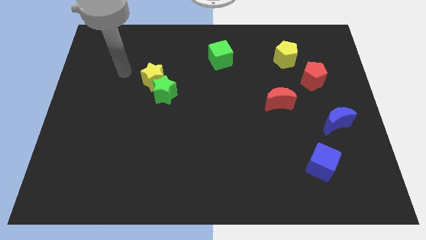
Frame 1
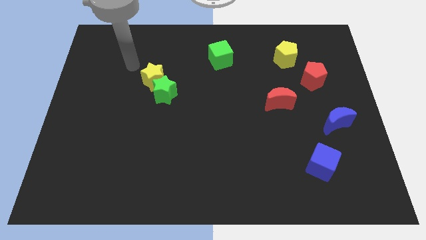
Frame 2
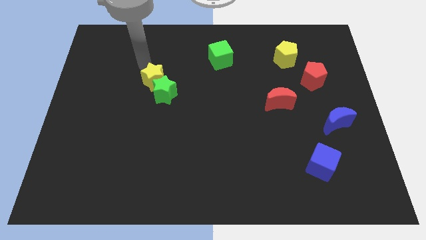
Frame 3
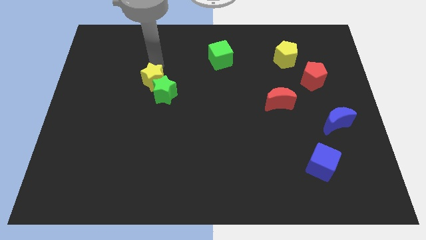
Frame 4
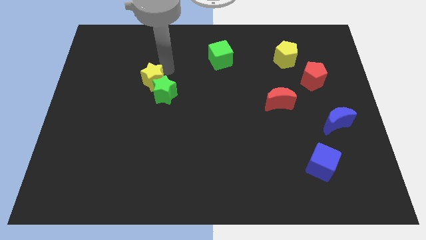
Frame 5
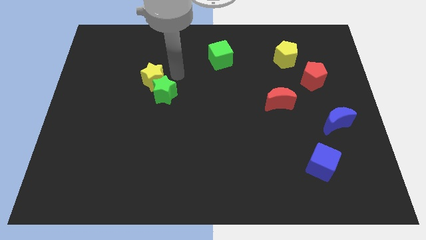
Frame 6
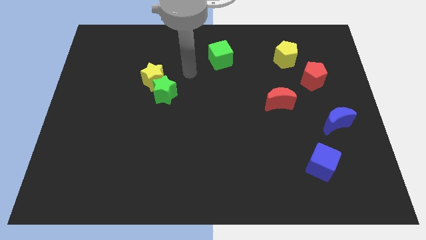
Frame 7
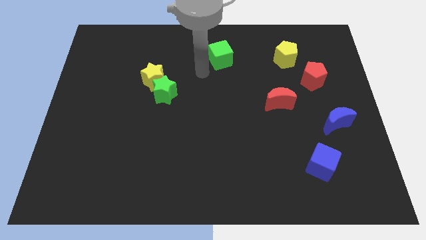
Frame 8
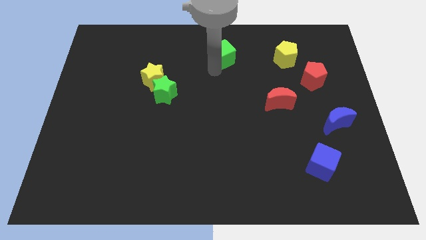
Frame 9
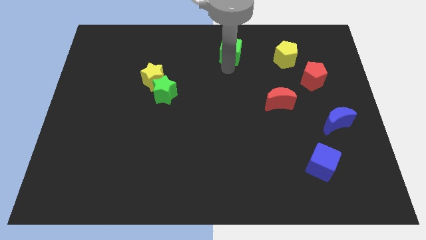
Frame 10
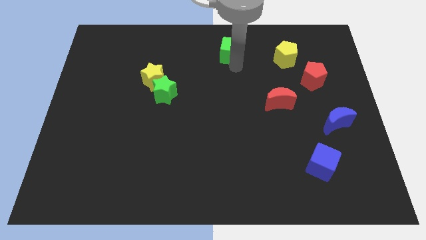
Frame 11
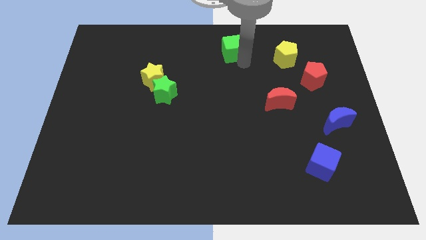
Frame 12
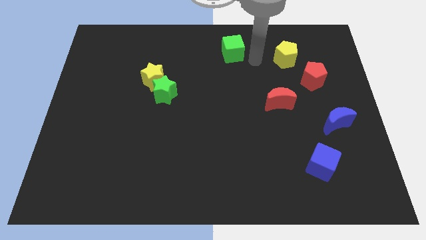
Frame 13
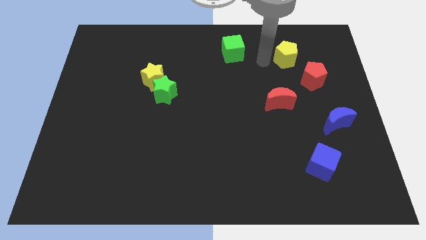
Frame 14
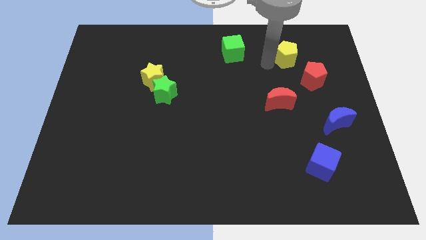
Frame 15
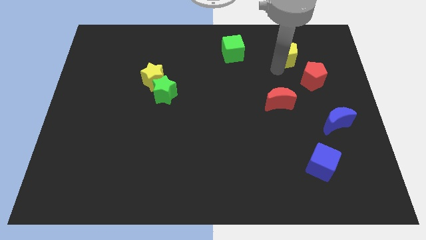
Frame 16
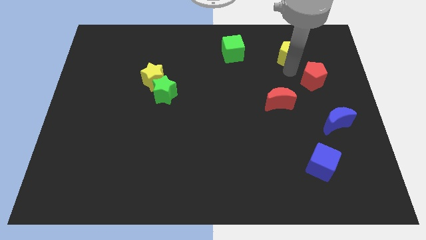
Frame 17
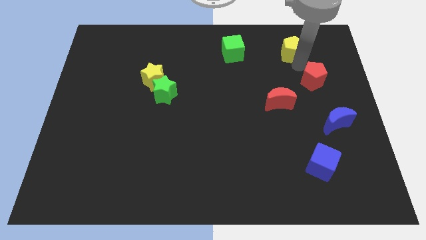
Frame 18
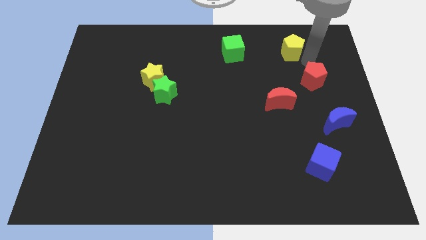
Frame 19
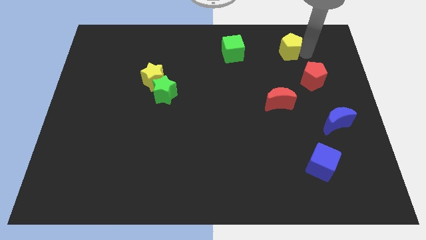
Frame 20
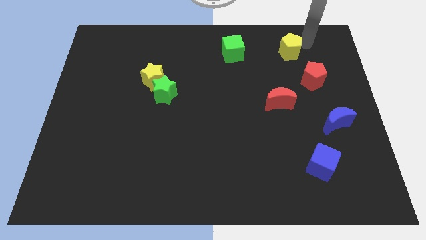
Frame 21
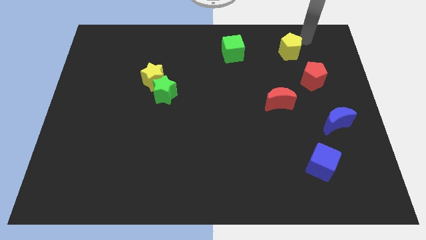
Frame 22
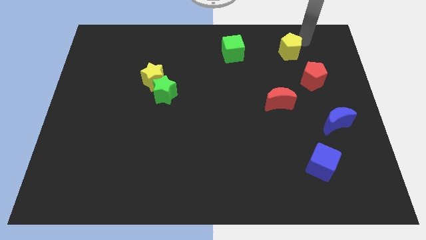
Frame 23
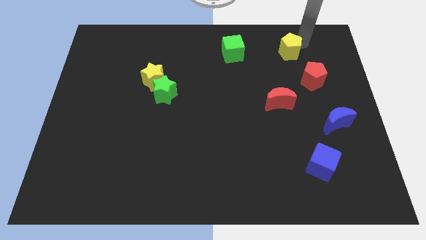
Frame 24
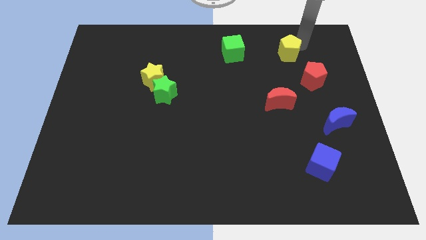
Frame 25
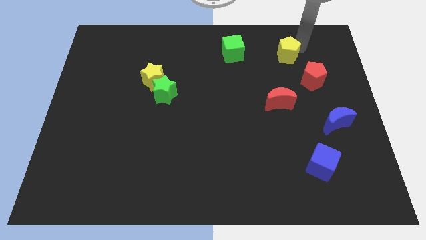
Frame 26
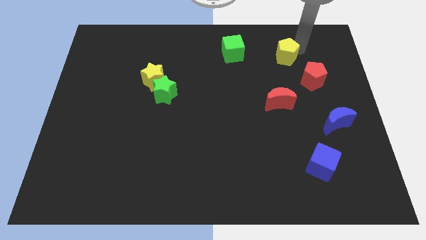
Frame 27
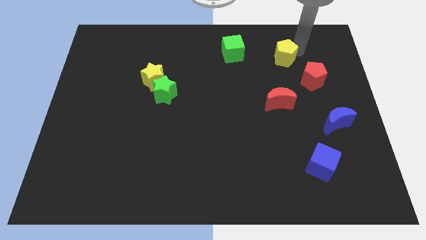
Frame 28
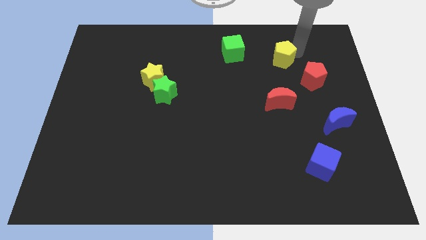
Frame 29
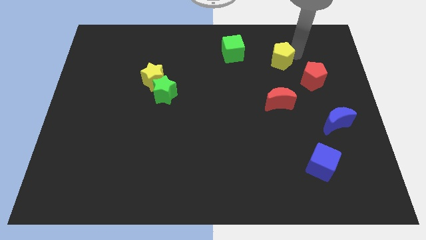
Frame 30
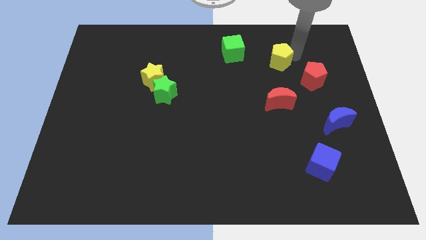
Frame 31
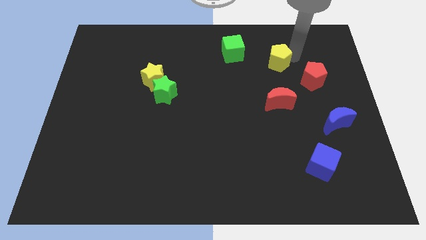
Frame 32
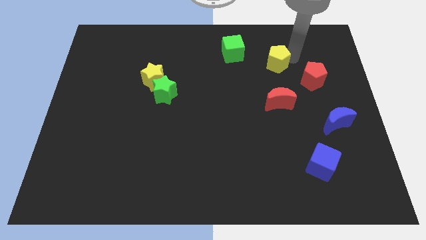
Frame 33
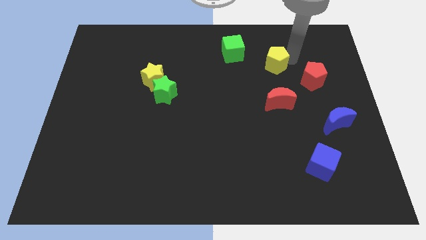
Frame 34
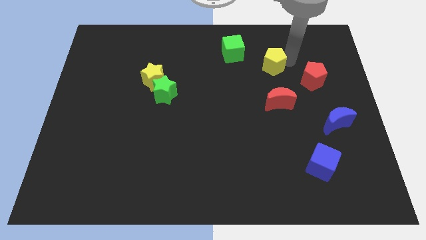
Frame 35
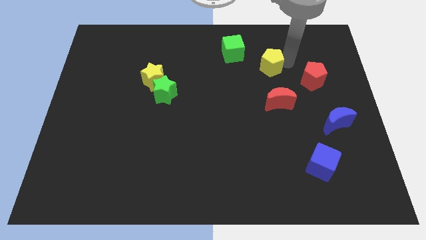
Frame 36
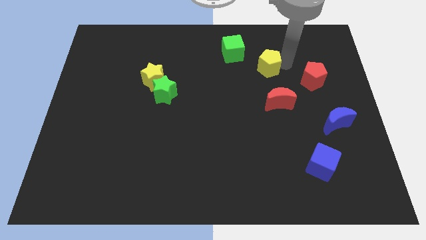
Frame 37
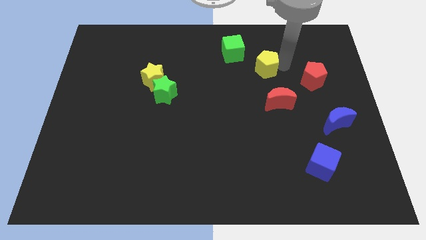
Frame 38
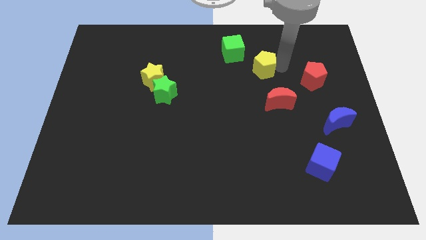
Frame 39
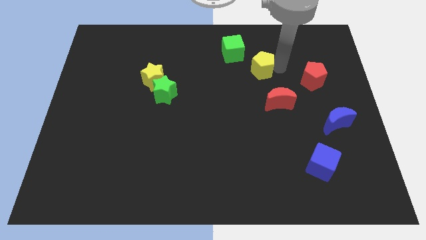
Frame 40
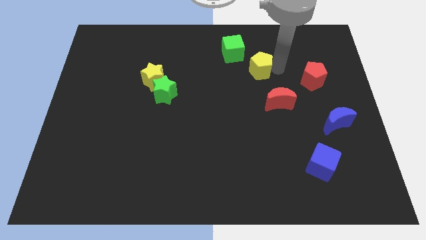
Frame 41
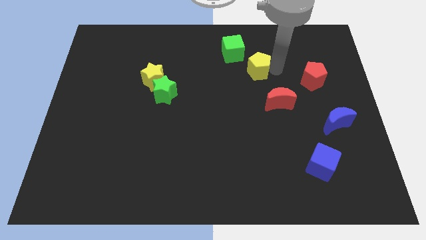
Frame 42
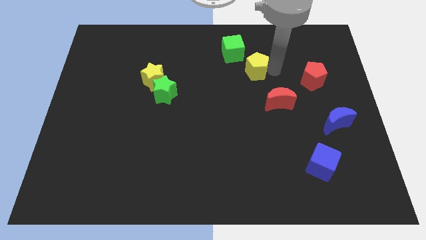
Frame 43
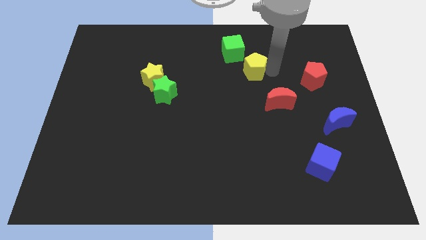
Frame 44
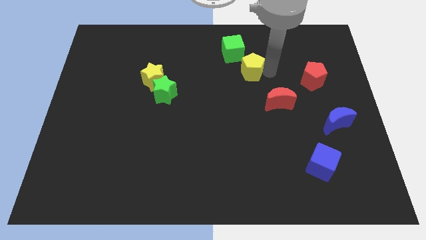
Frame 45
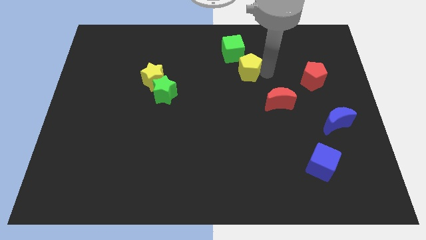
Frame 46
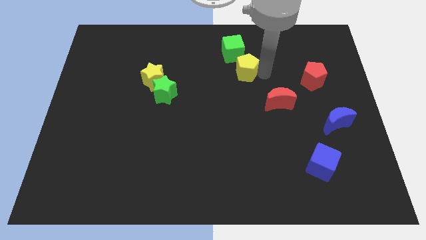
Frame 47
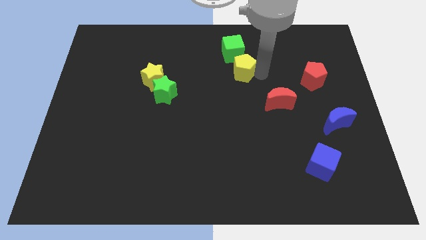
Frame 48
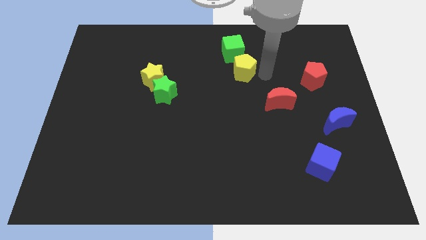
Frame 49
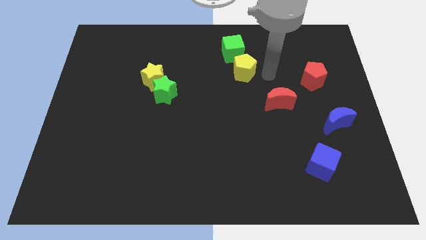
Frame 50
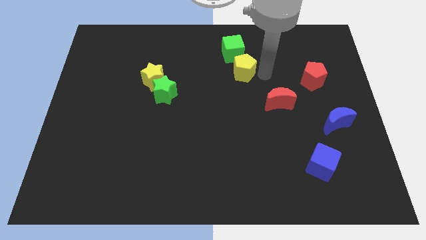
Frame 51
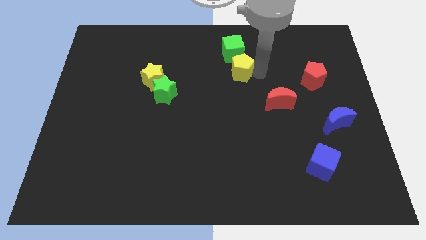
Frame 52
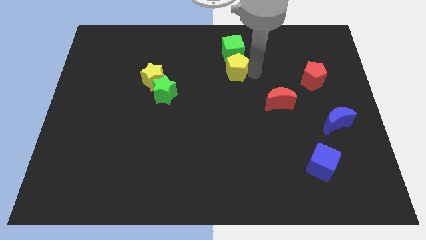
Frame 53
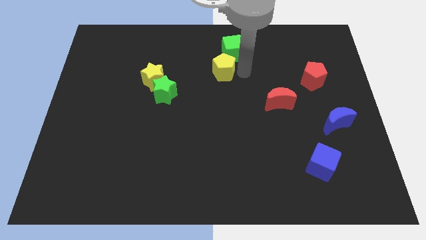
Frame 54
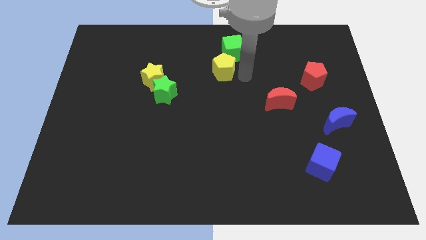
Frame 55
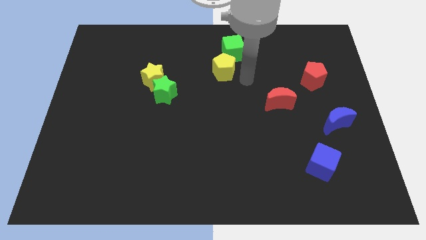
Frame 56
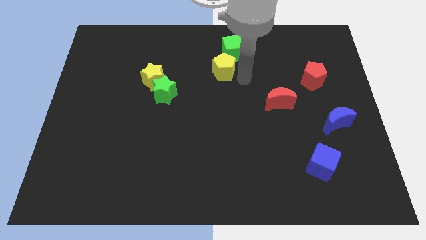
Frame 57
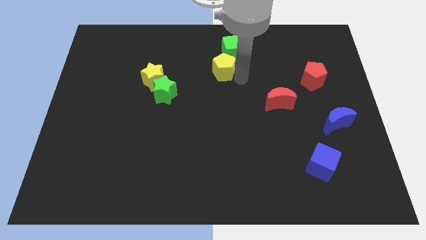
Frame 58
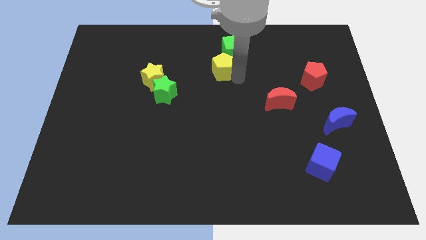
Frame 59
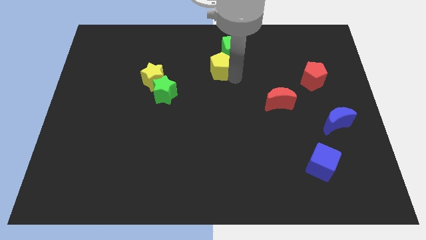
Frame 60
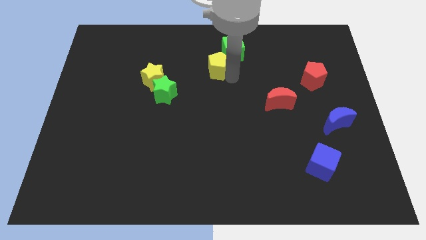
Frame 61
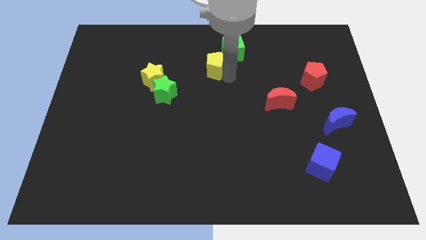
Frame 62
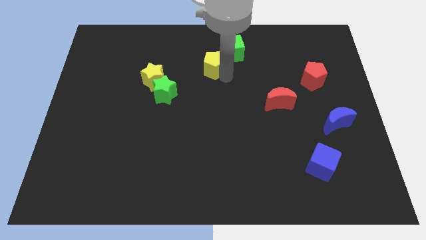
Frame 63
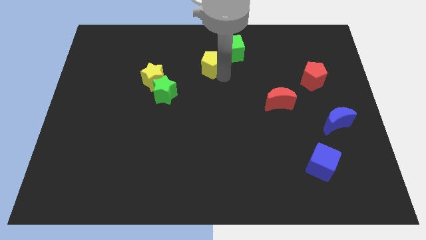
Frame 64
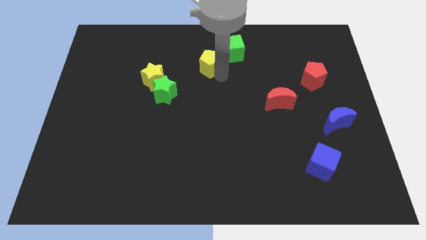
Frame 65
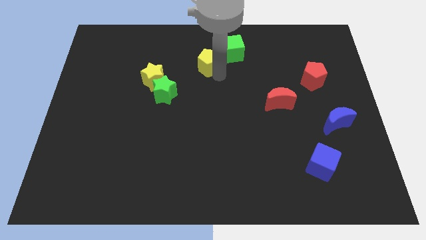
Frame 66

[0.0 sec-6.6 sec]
push the yellow pentagon left

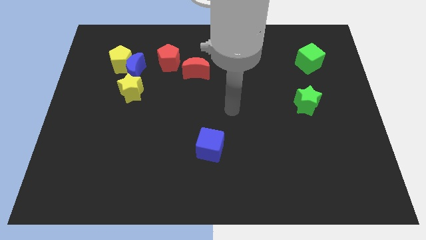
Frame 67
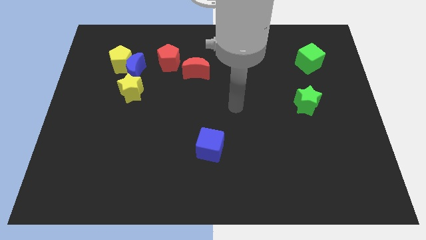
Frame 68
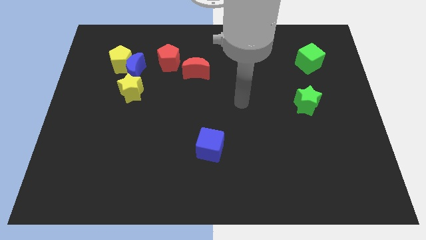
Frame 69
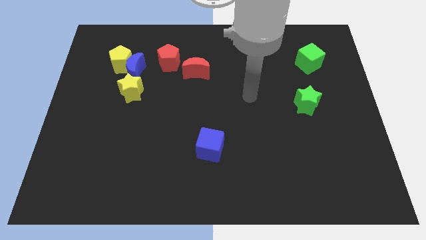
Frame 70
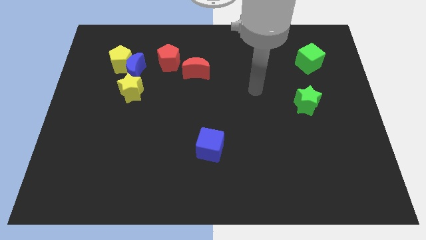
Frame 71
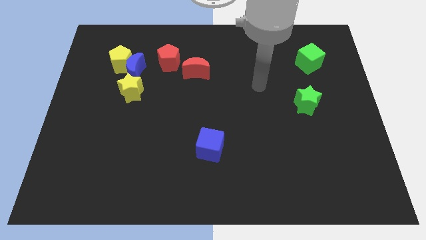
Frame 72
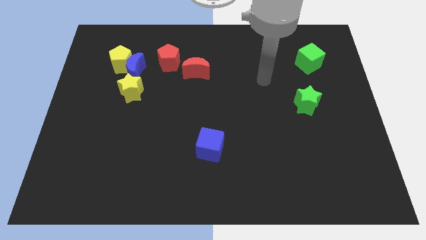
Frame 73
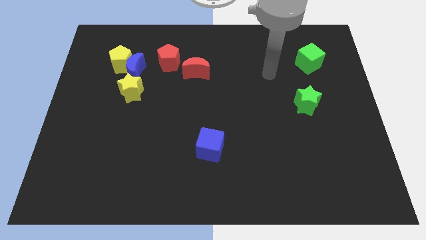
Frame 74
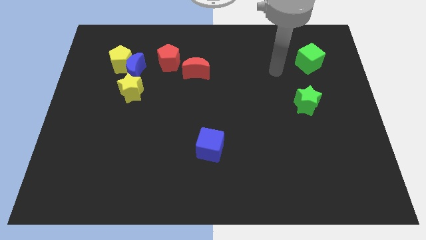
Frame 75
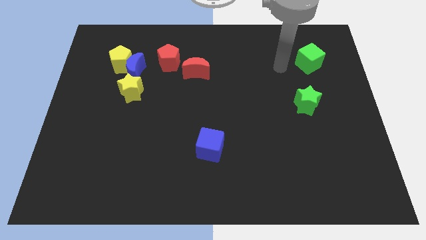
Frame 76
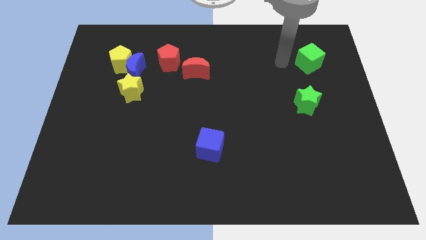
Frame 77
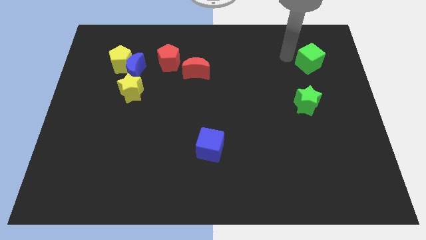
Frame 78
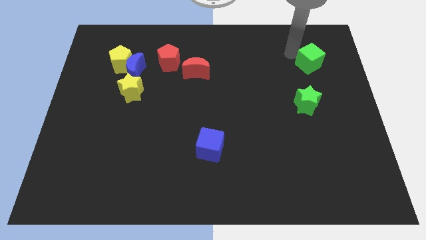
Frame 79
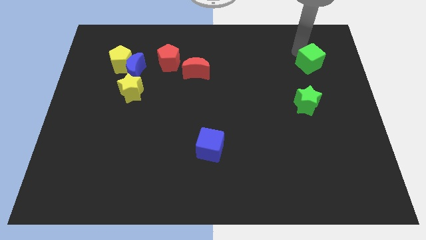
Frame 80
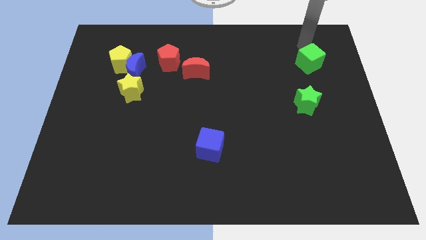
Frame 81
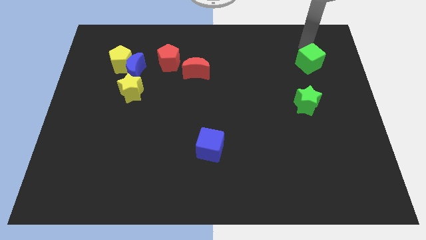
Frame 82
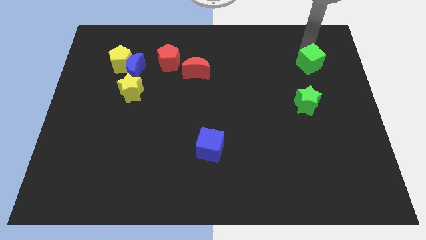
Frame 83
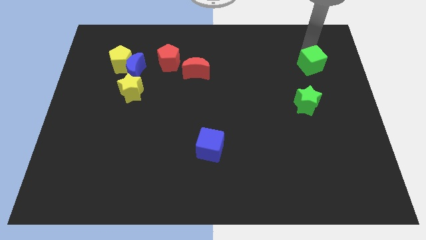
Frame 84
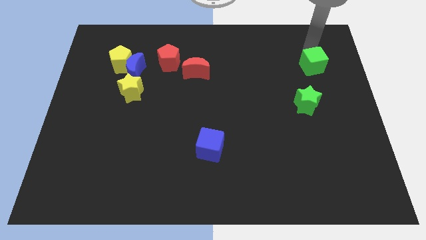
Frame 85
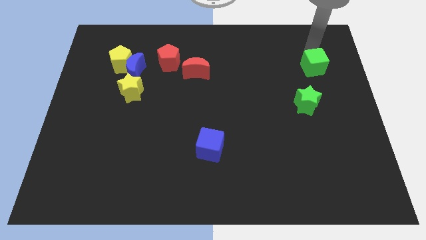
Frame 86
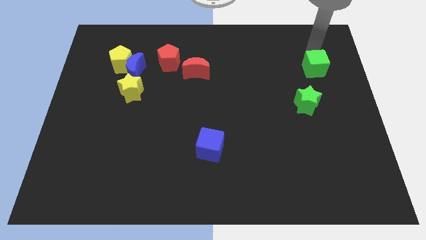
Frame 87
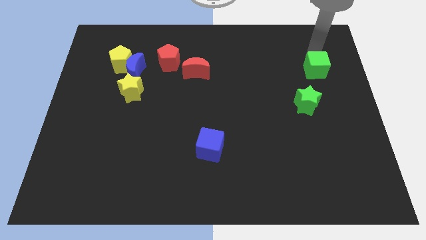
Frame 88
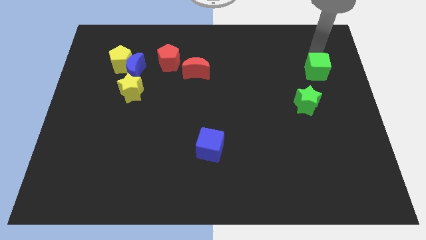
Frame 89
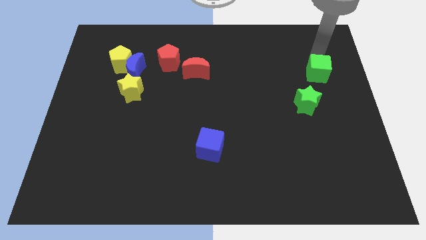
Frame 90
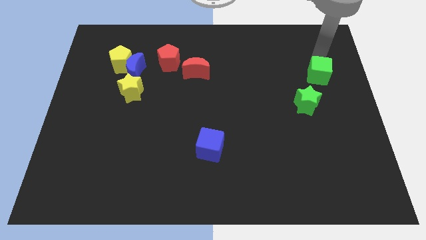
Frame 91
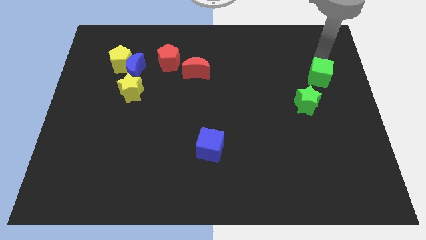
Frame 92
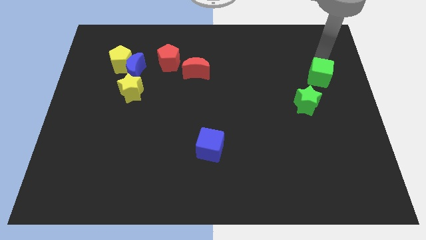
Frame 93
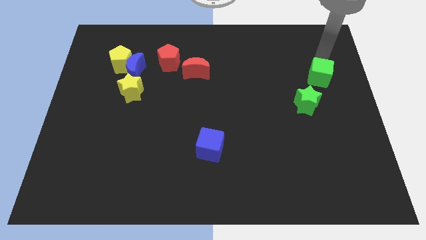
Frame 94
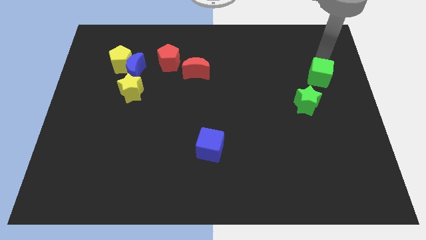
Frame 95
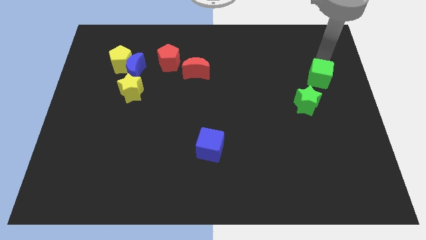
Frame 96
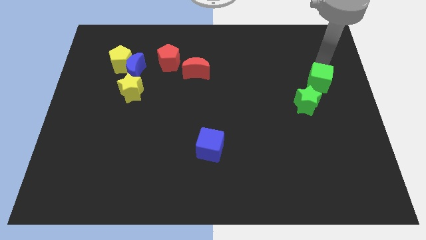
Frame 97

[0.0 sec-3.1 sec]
push the green cube down slightly
